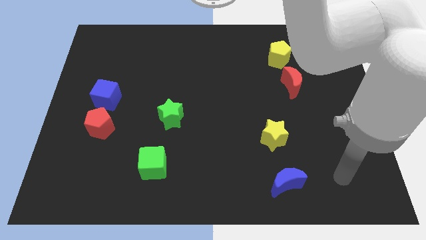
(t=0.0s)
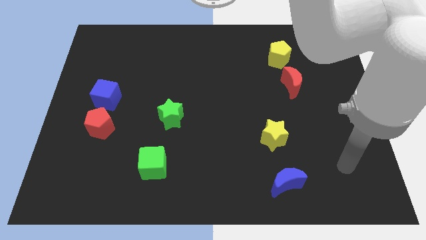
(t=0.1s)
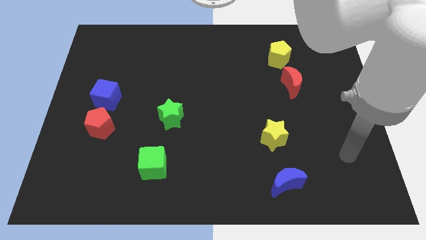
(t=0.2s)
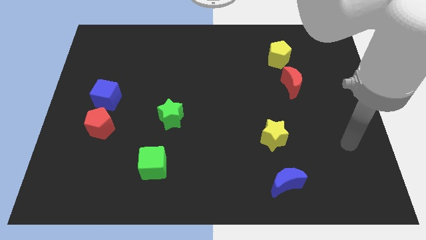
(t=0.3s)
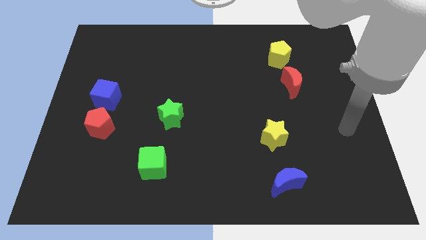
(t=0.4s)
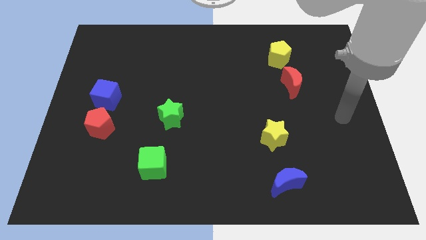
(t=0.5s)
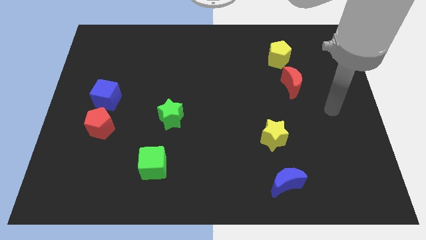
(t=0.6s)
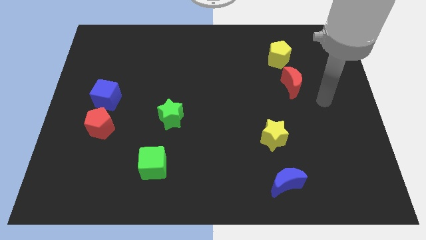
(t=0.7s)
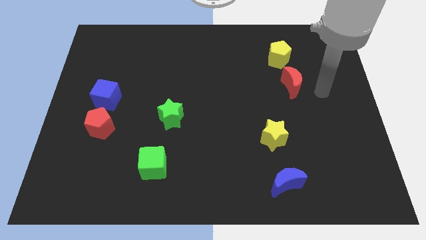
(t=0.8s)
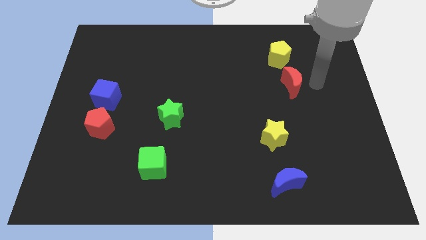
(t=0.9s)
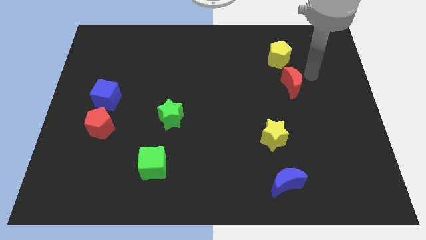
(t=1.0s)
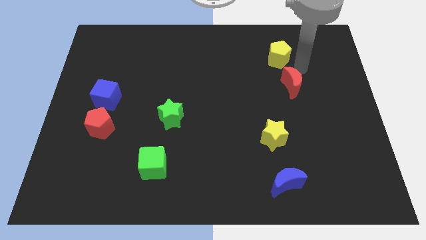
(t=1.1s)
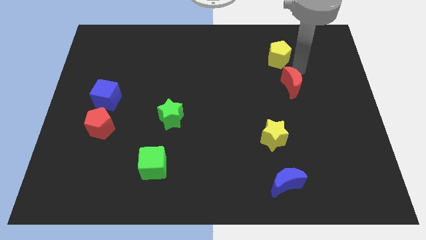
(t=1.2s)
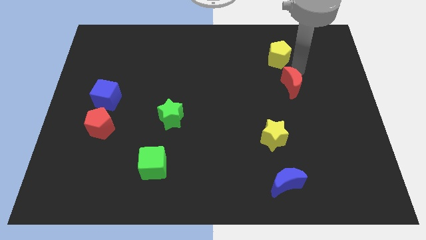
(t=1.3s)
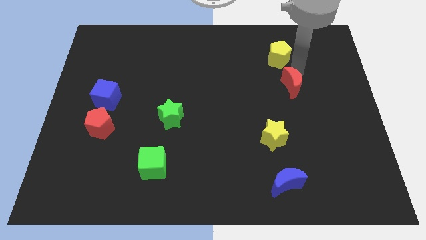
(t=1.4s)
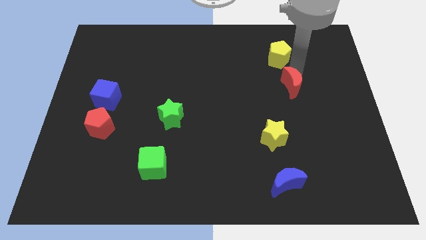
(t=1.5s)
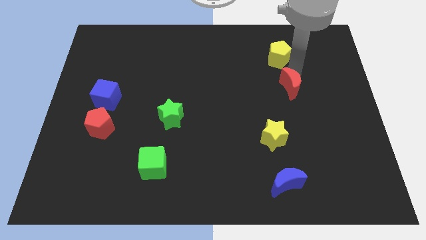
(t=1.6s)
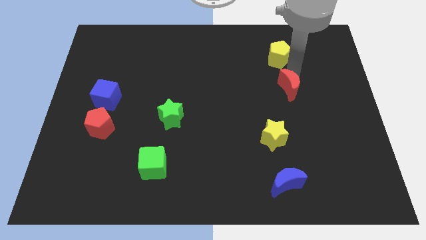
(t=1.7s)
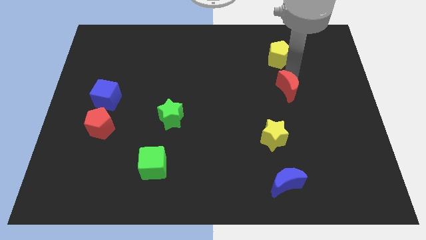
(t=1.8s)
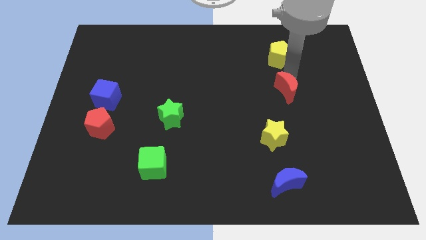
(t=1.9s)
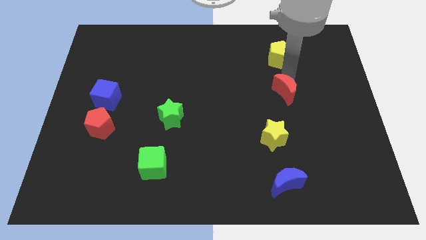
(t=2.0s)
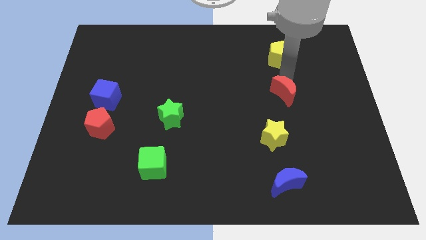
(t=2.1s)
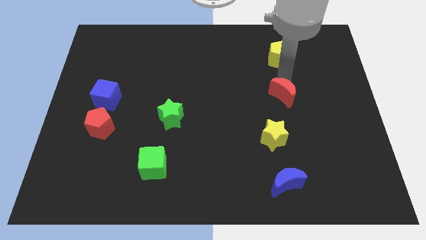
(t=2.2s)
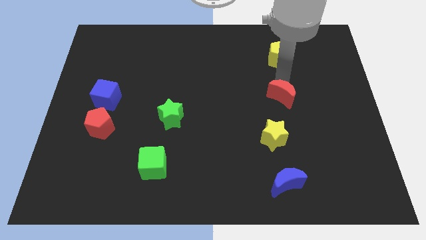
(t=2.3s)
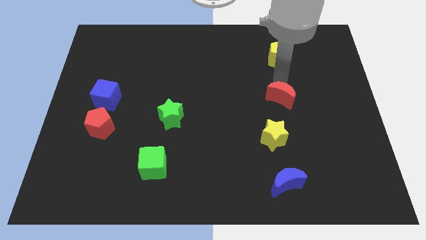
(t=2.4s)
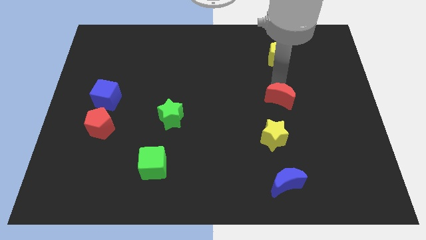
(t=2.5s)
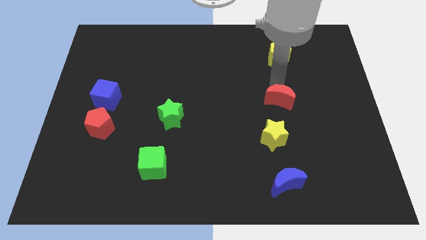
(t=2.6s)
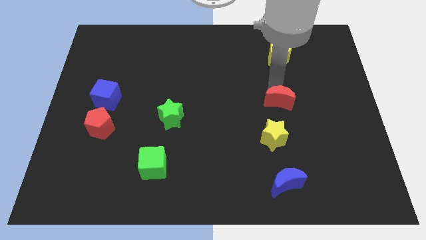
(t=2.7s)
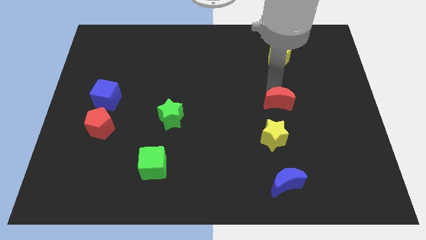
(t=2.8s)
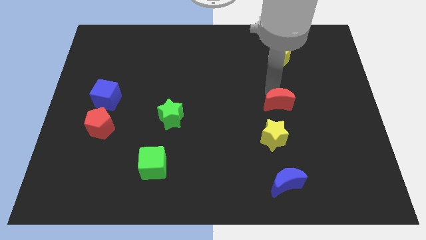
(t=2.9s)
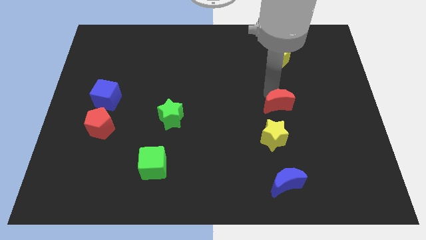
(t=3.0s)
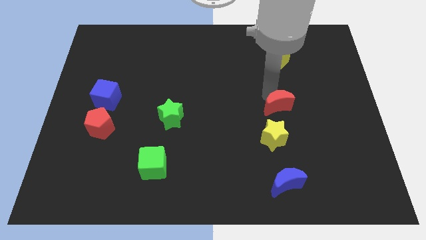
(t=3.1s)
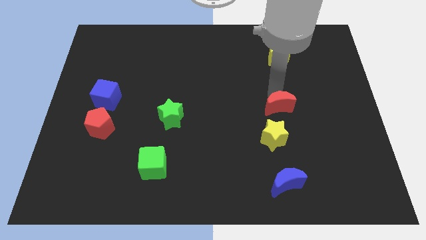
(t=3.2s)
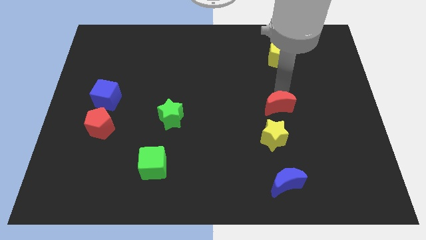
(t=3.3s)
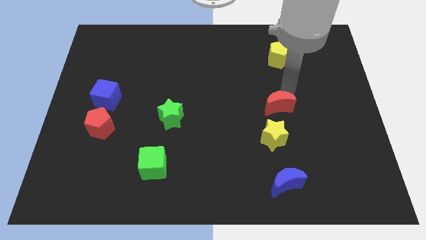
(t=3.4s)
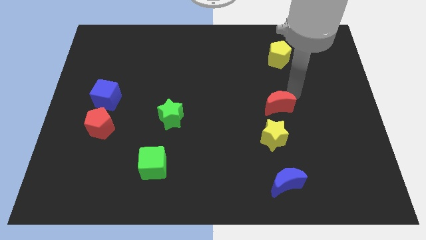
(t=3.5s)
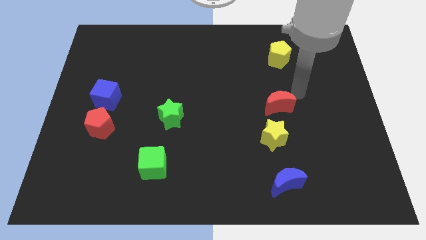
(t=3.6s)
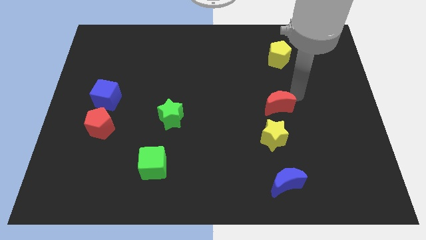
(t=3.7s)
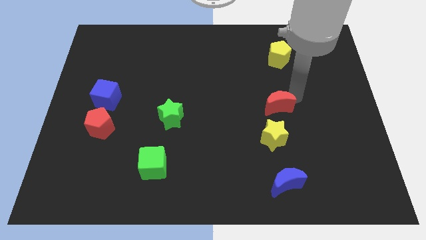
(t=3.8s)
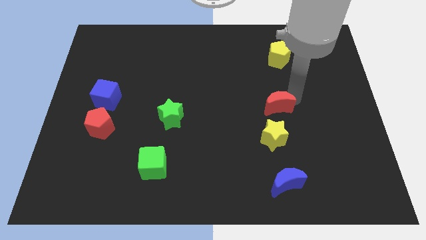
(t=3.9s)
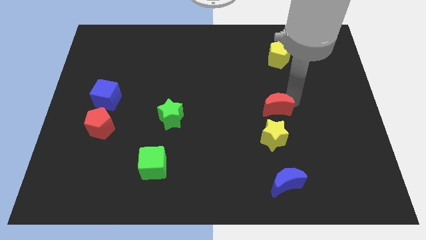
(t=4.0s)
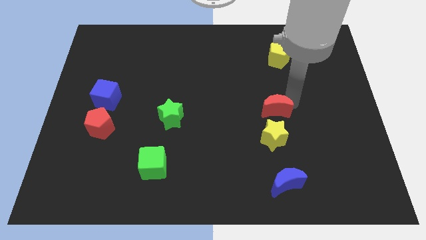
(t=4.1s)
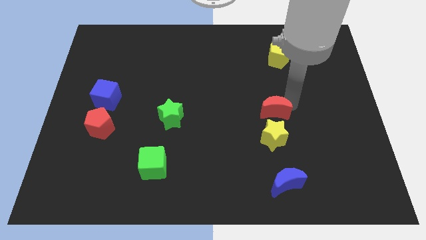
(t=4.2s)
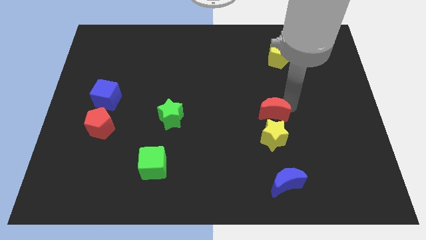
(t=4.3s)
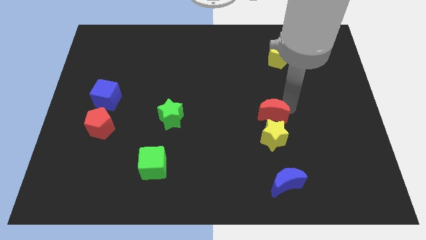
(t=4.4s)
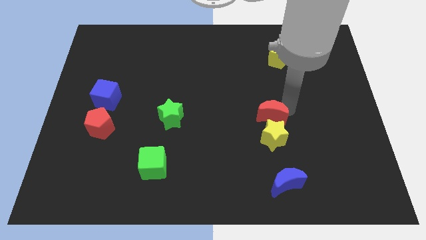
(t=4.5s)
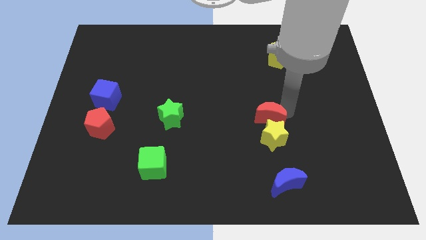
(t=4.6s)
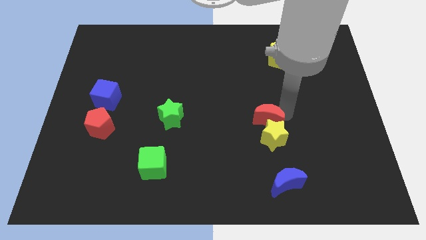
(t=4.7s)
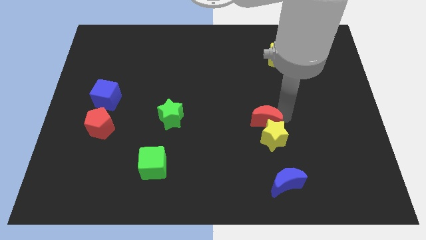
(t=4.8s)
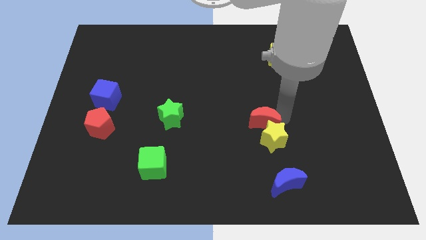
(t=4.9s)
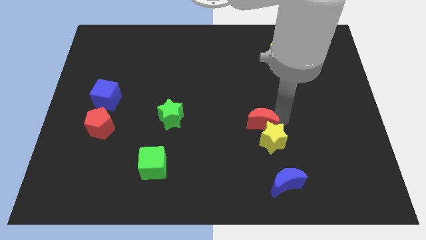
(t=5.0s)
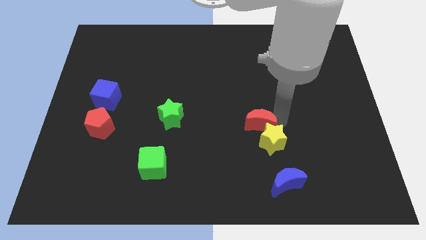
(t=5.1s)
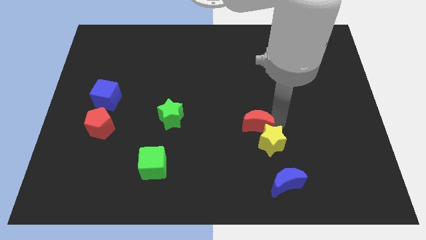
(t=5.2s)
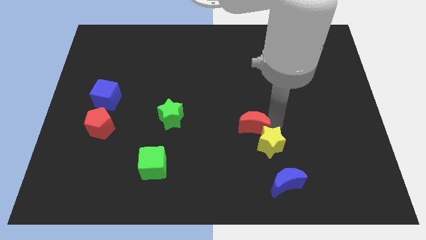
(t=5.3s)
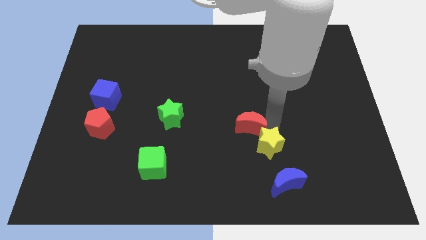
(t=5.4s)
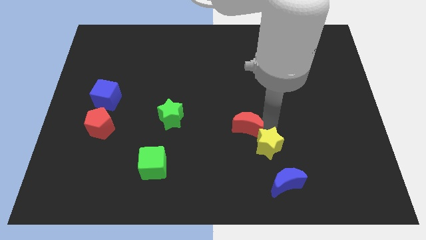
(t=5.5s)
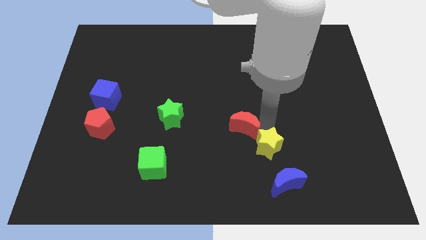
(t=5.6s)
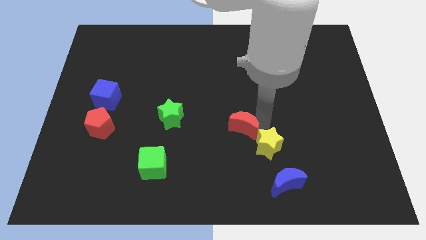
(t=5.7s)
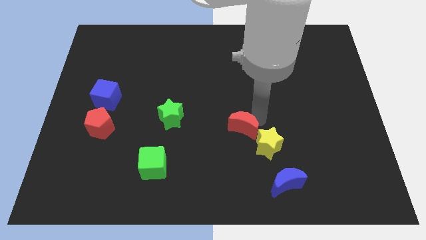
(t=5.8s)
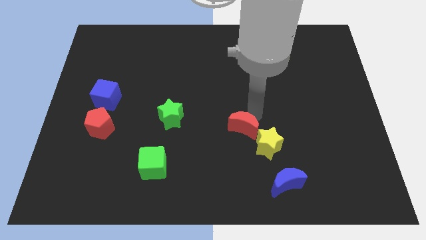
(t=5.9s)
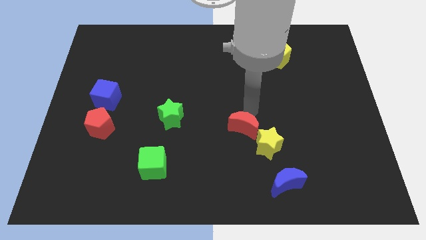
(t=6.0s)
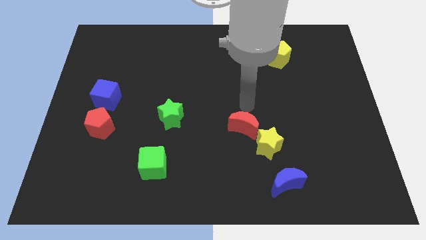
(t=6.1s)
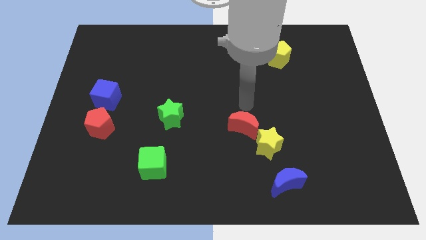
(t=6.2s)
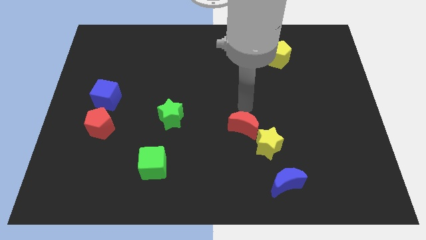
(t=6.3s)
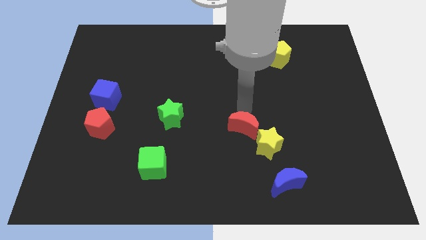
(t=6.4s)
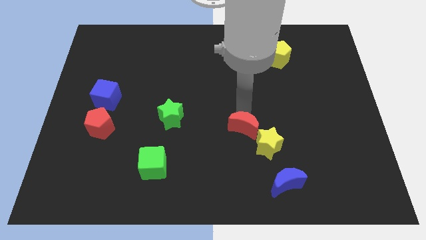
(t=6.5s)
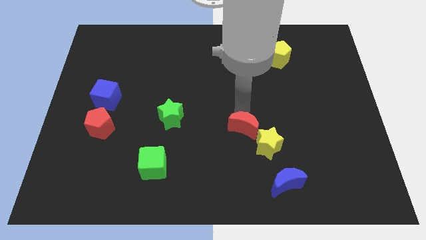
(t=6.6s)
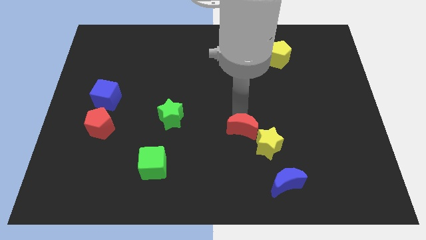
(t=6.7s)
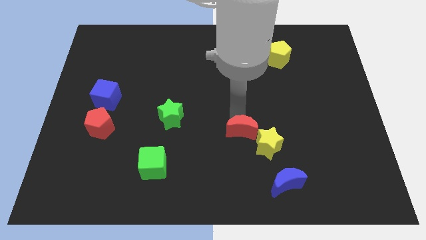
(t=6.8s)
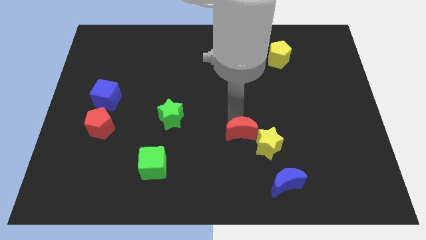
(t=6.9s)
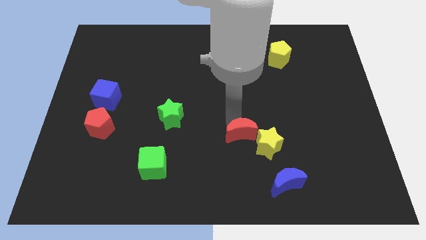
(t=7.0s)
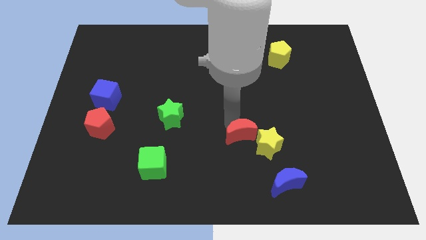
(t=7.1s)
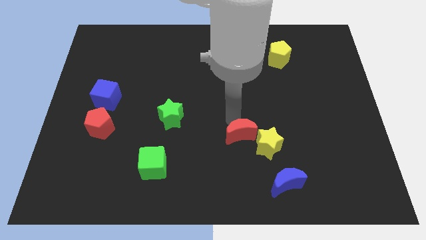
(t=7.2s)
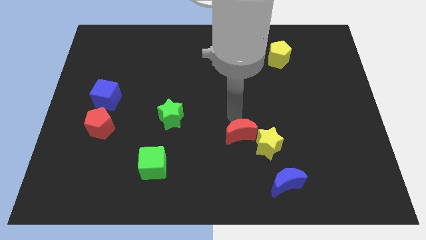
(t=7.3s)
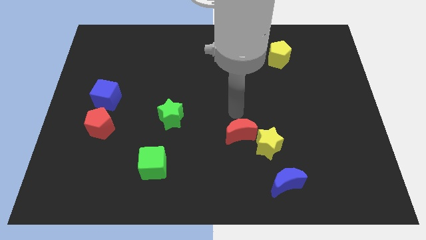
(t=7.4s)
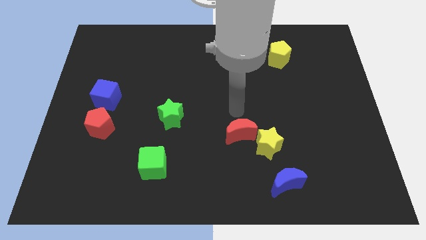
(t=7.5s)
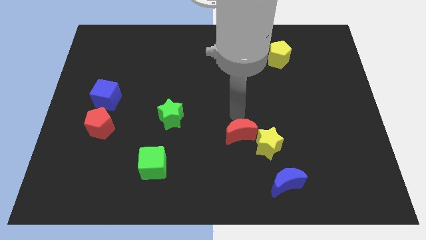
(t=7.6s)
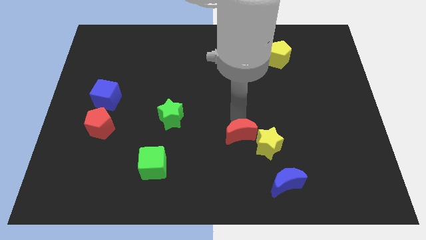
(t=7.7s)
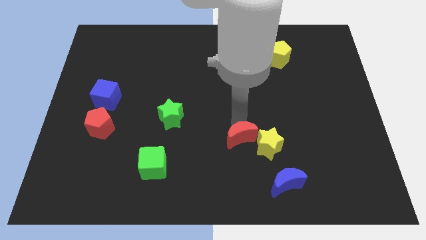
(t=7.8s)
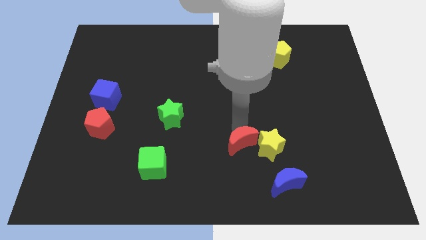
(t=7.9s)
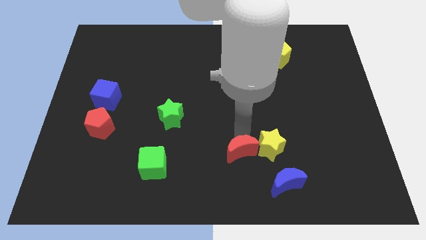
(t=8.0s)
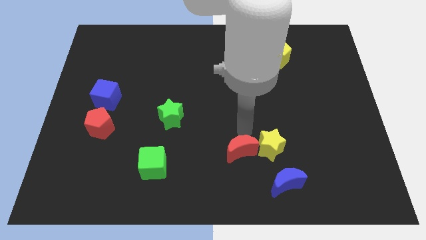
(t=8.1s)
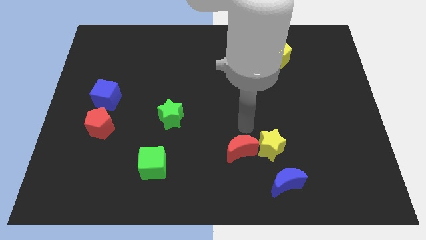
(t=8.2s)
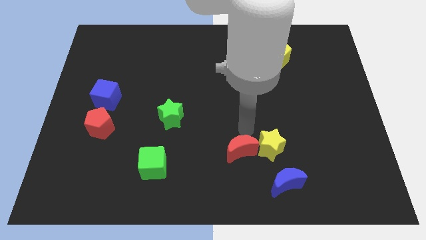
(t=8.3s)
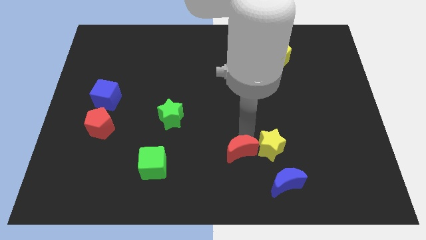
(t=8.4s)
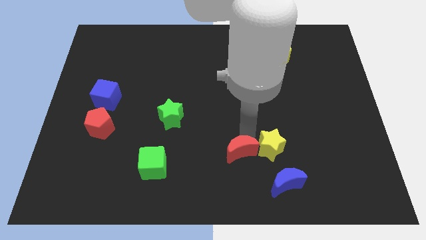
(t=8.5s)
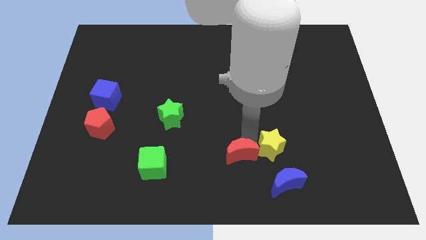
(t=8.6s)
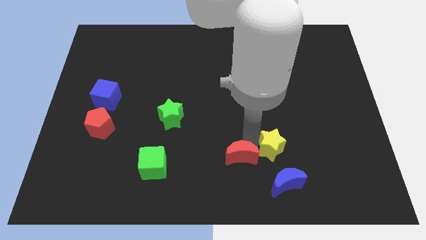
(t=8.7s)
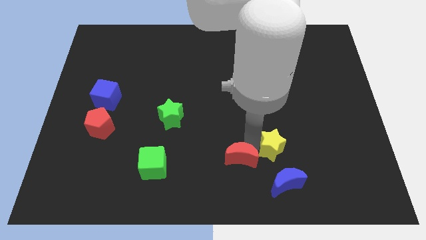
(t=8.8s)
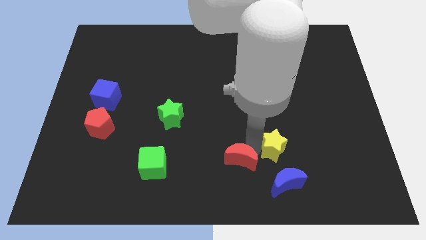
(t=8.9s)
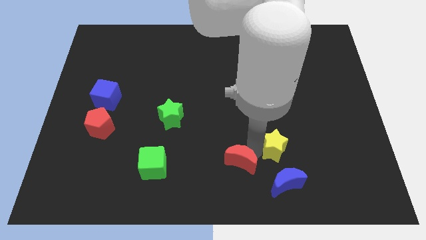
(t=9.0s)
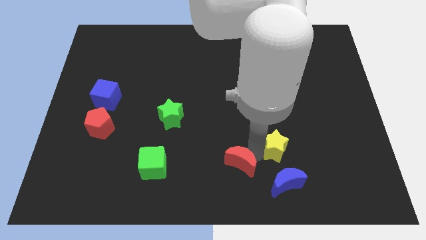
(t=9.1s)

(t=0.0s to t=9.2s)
move the red moon left of the blue moon
